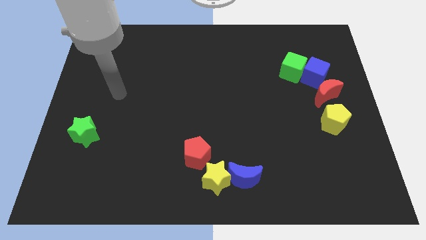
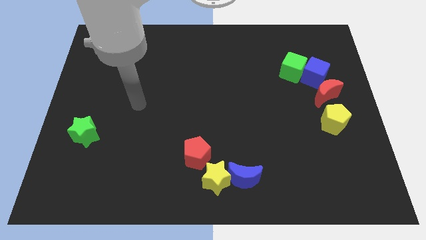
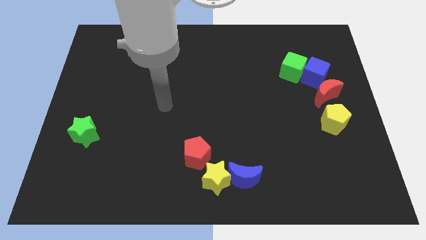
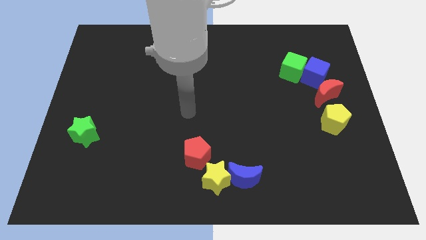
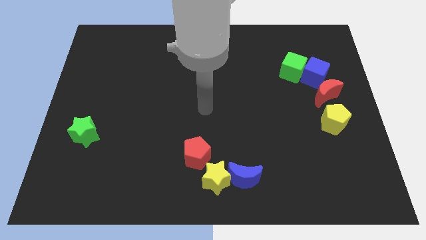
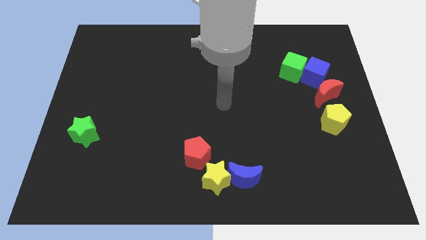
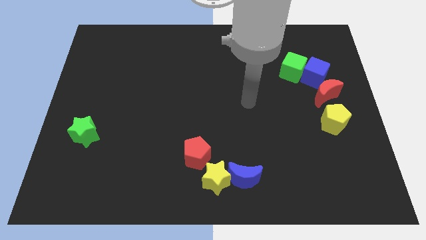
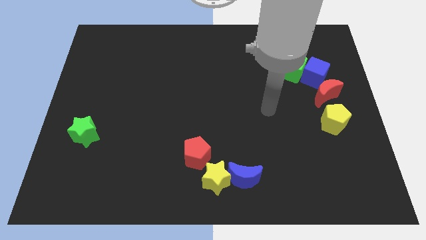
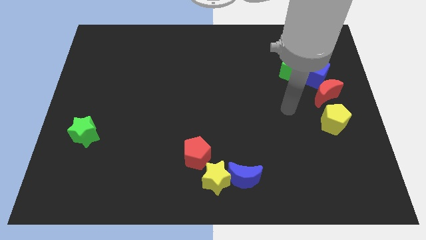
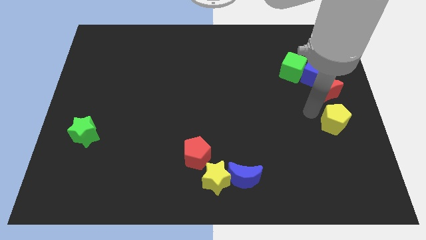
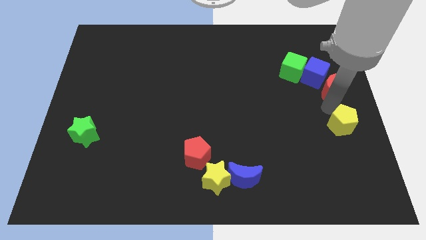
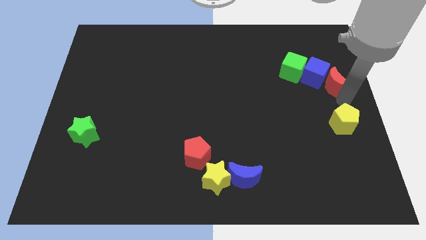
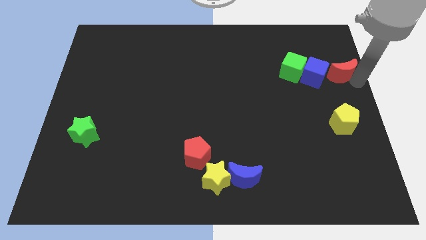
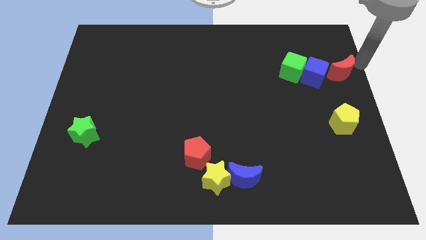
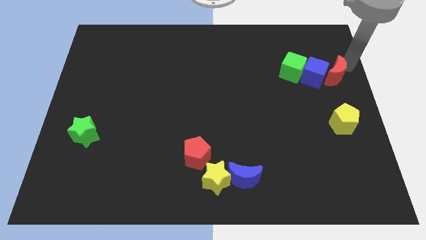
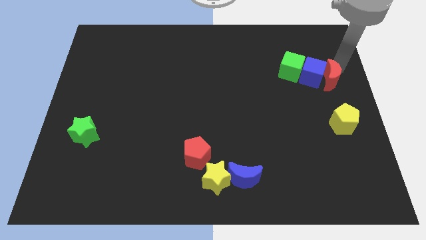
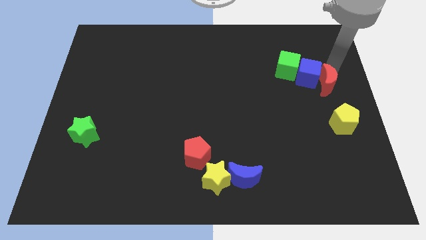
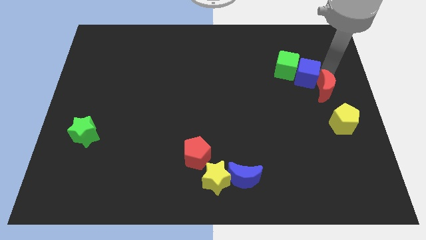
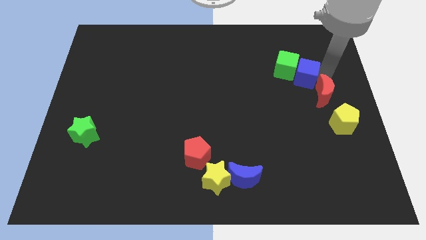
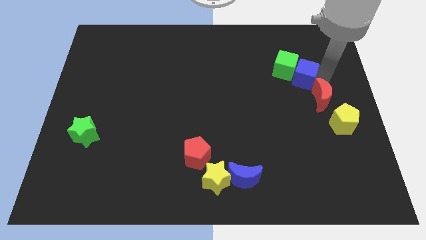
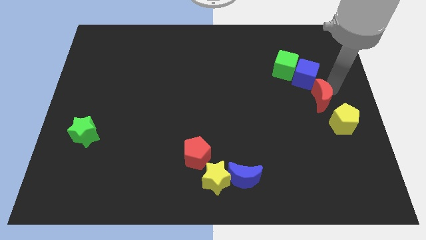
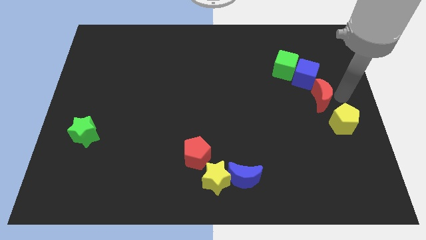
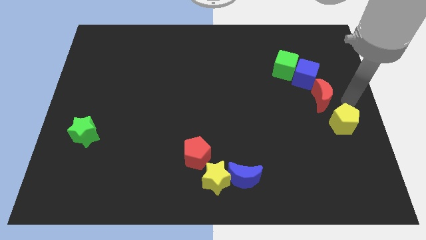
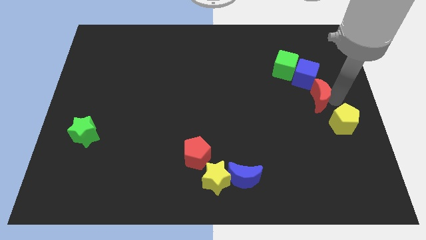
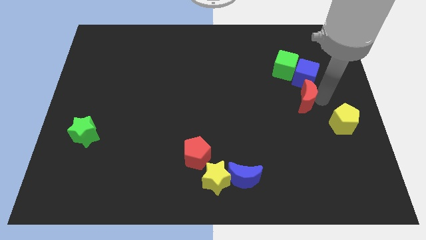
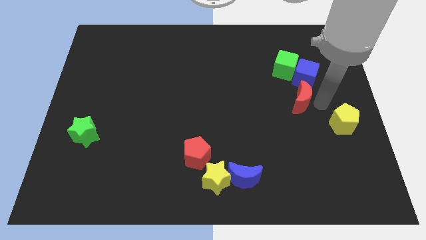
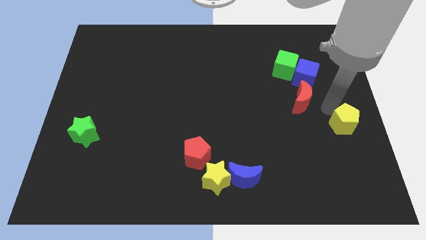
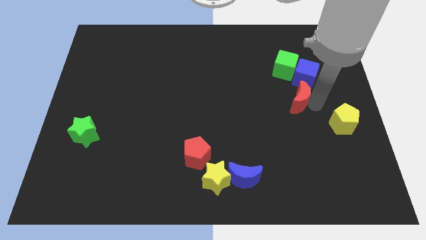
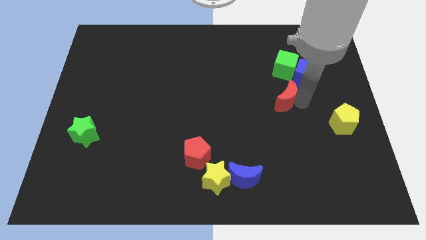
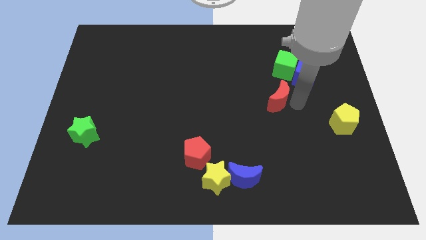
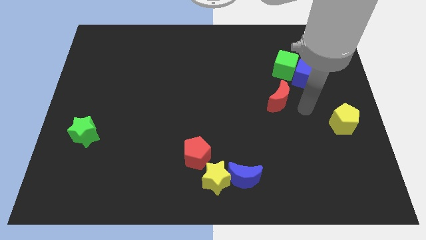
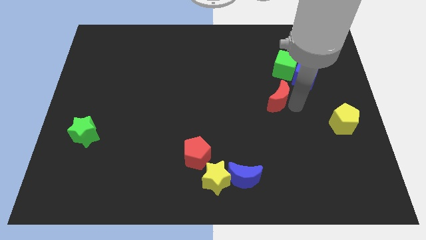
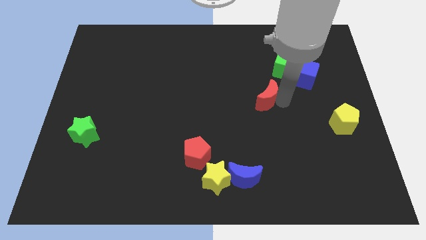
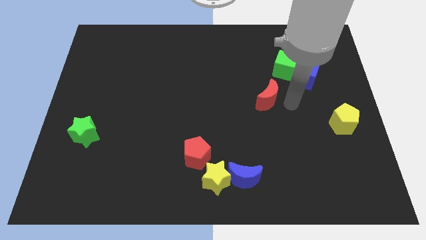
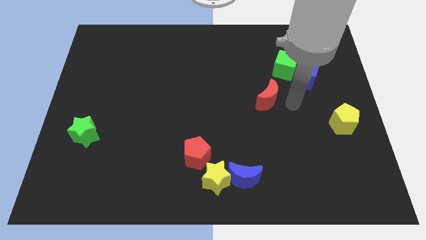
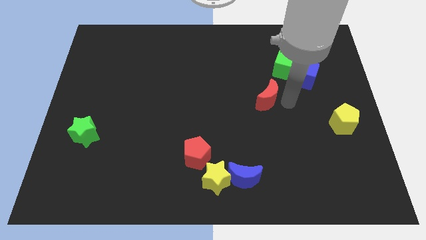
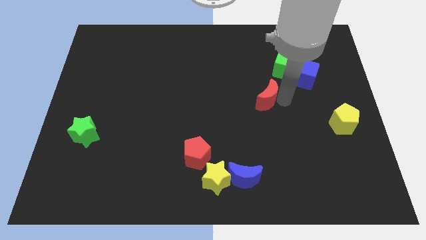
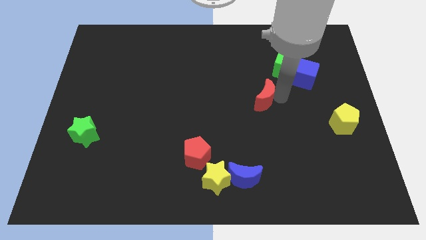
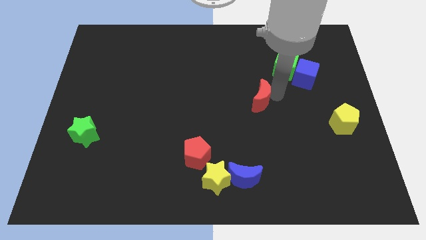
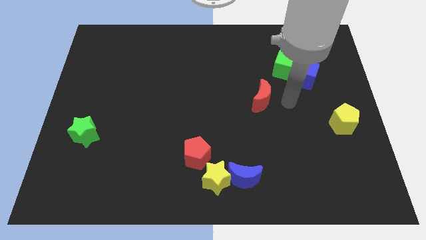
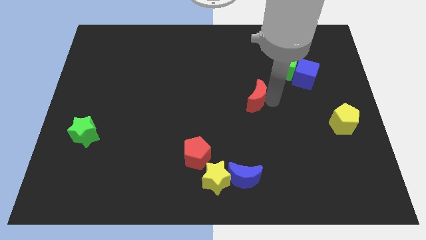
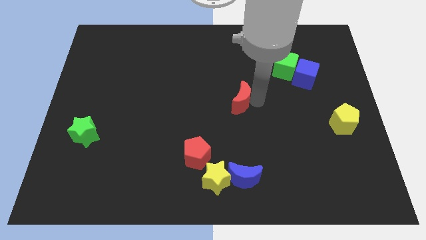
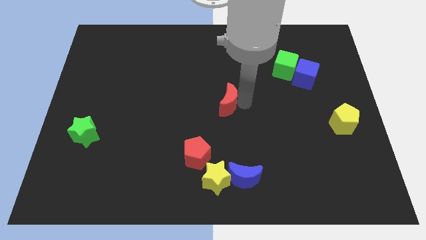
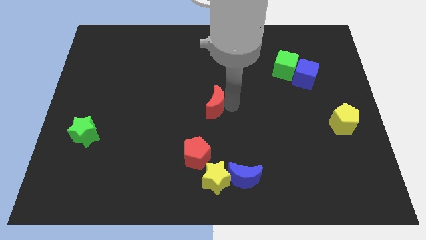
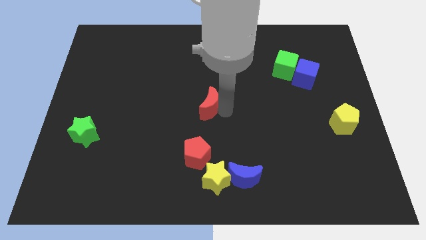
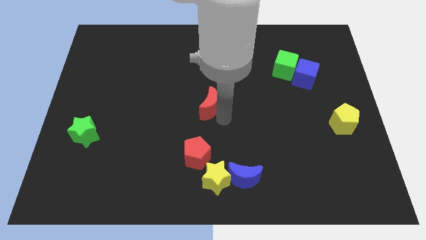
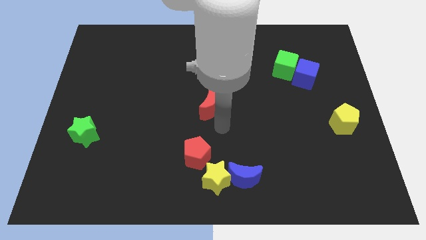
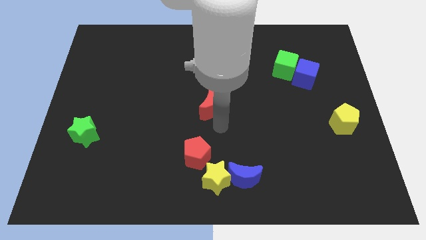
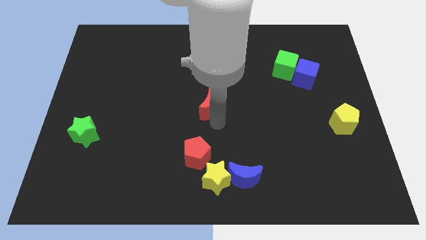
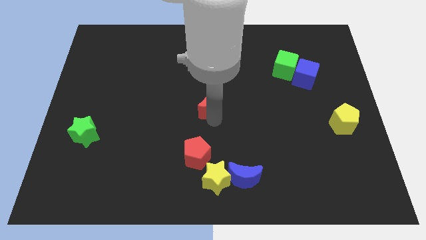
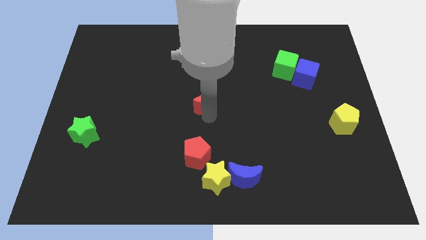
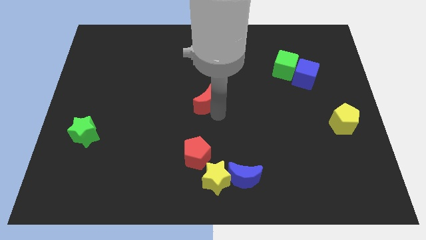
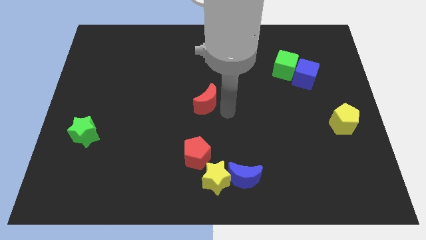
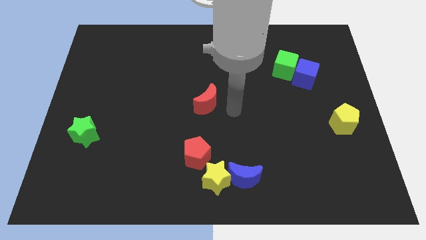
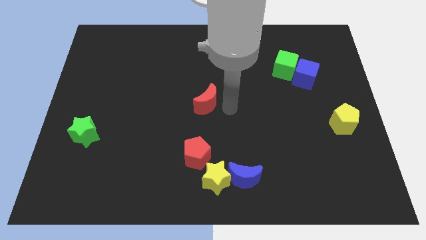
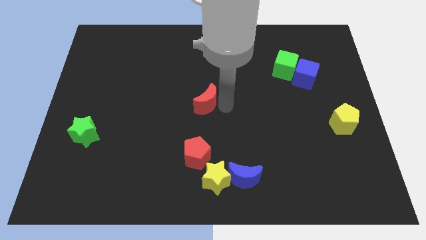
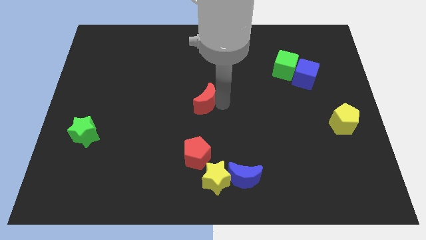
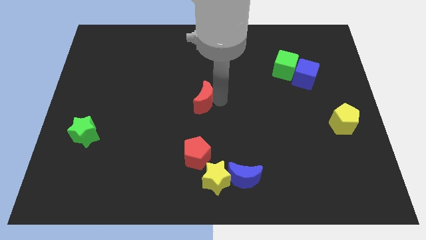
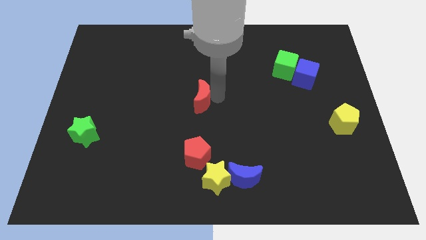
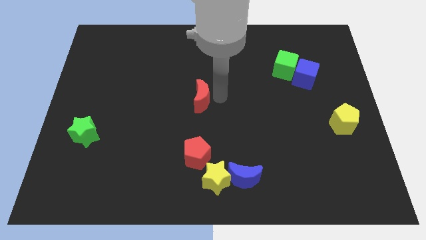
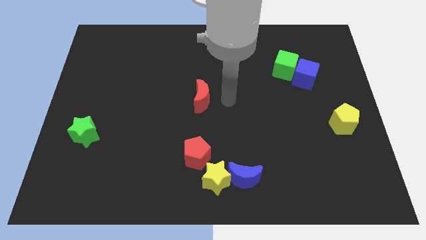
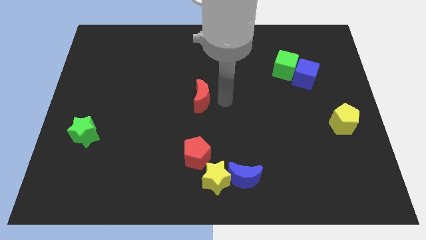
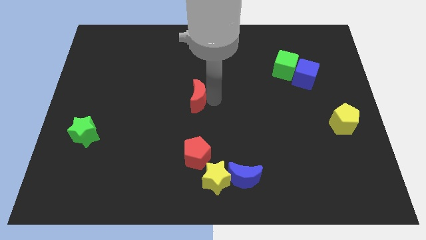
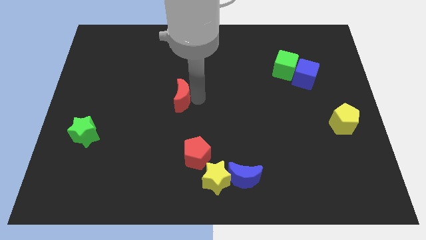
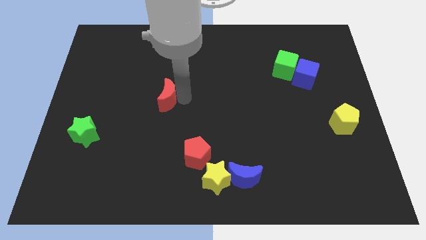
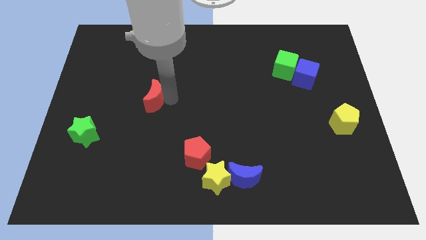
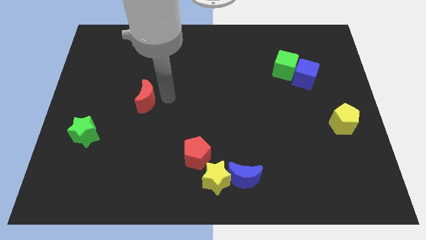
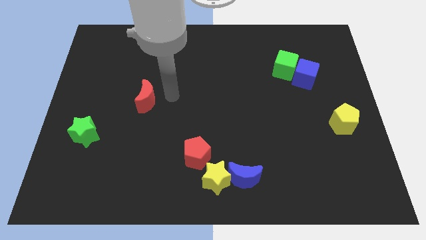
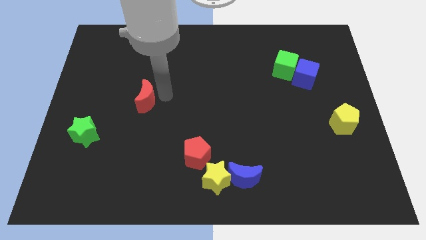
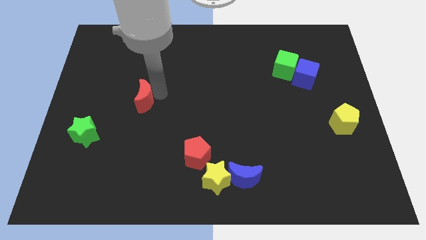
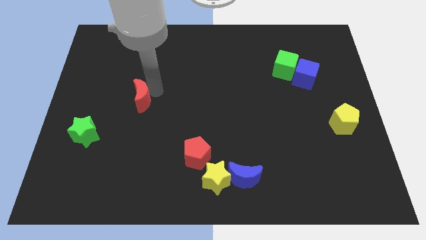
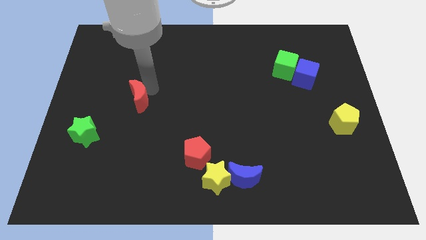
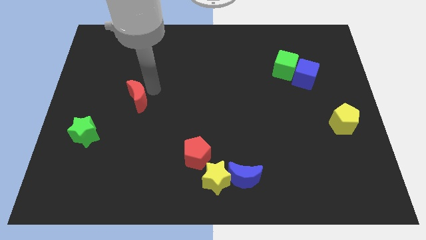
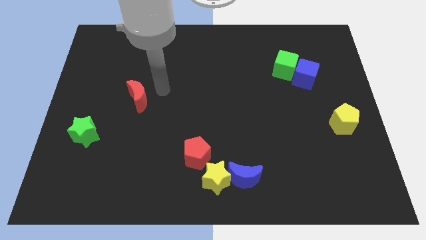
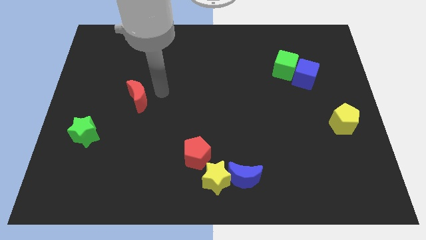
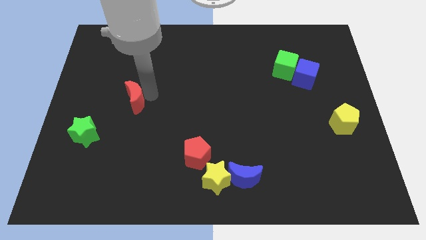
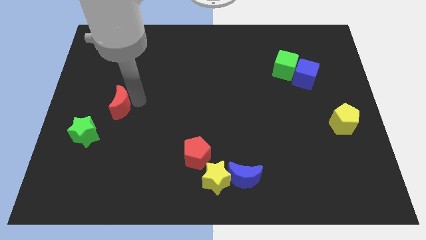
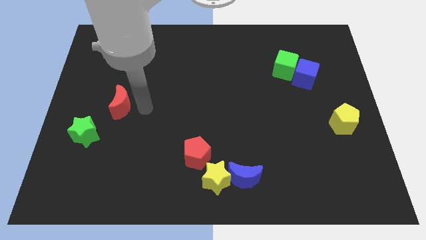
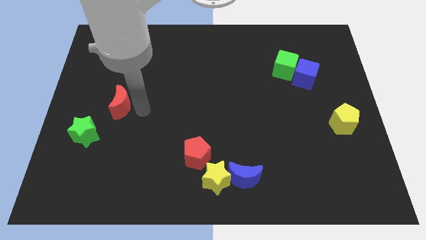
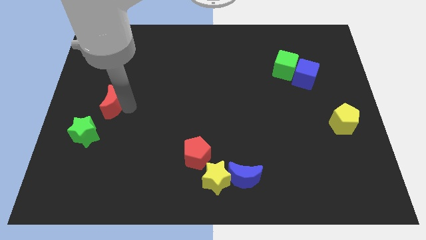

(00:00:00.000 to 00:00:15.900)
put the red moon to the top side of the green star
